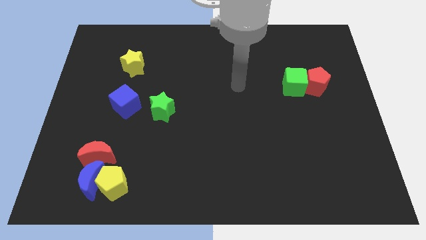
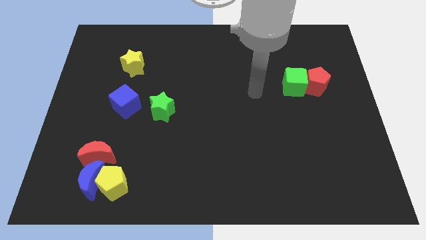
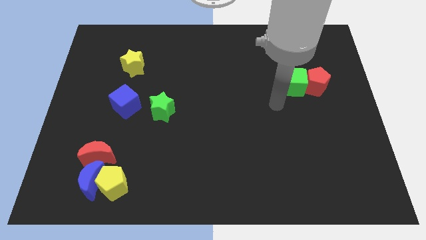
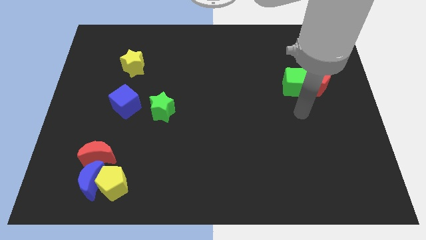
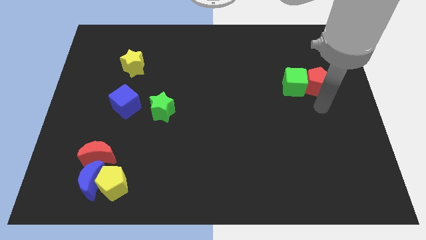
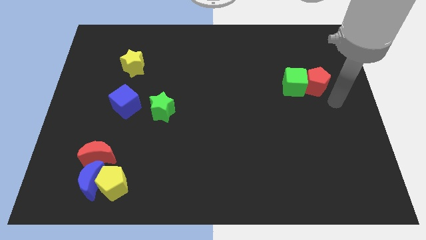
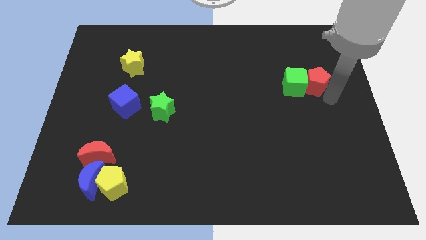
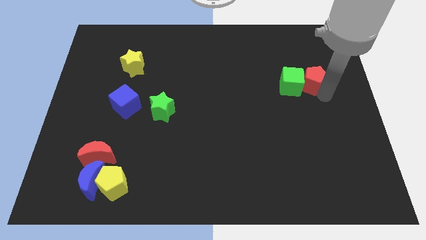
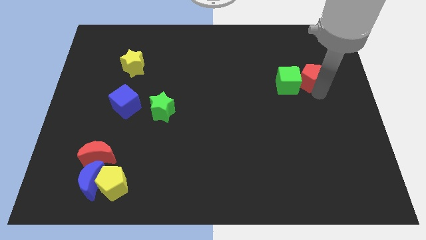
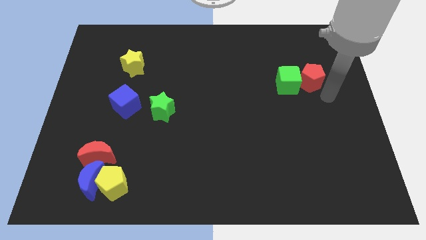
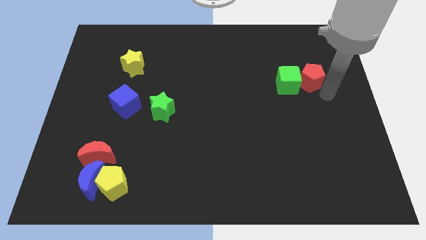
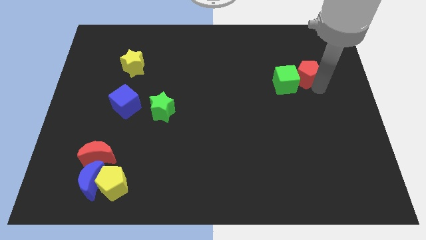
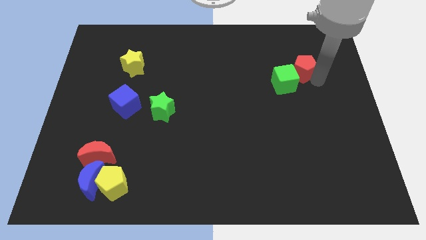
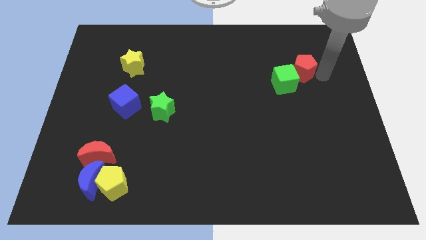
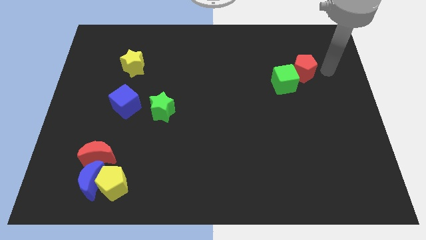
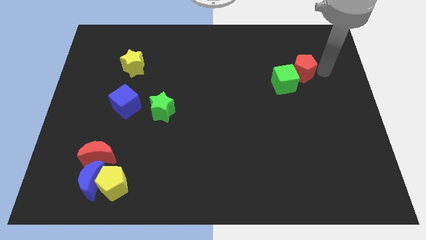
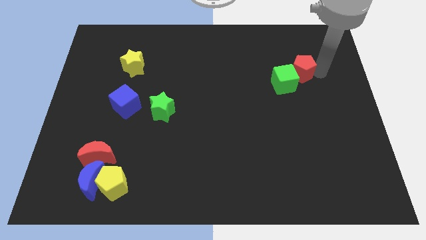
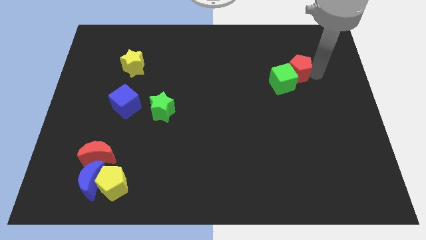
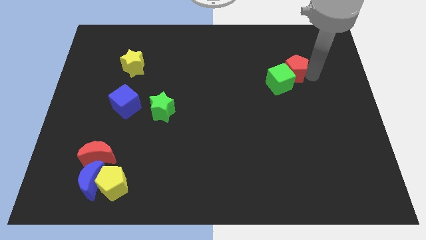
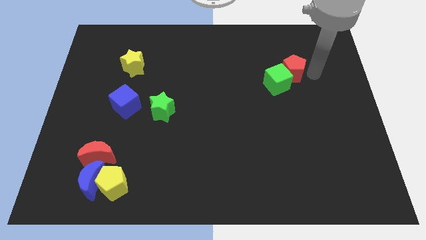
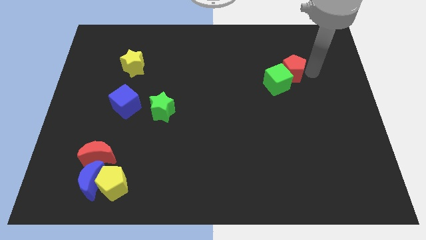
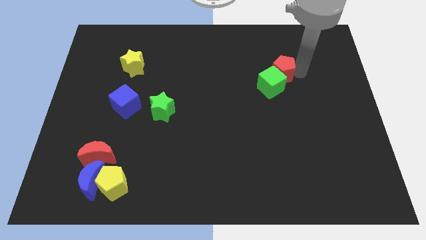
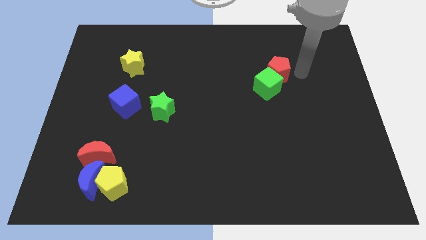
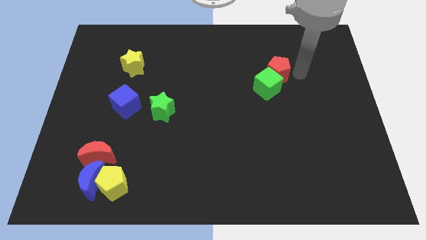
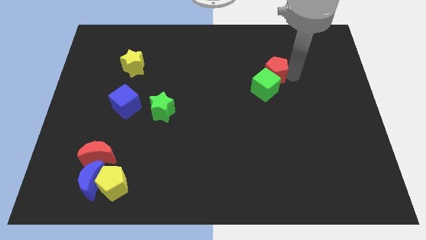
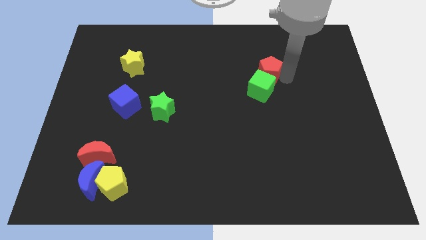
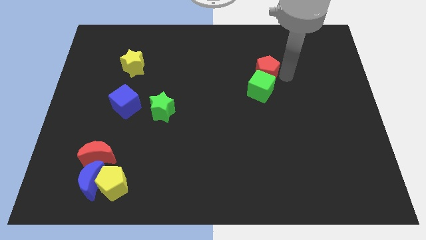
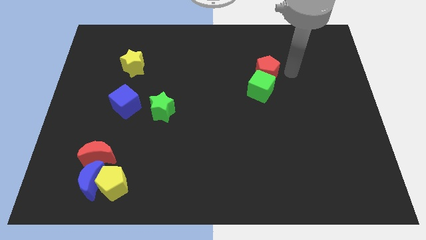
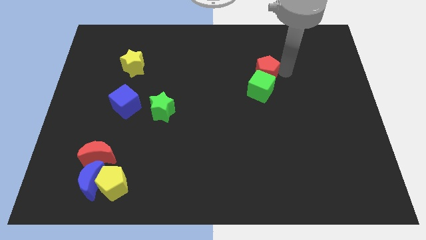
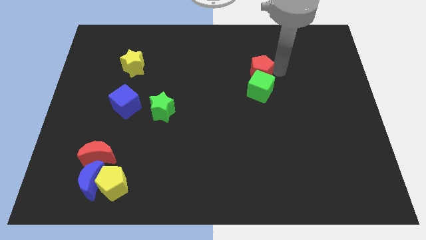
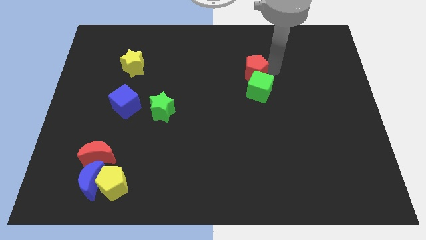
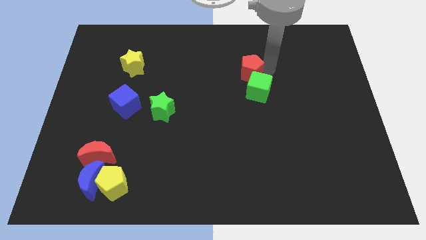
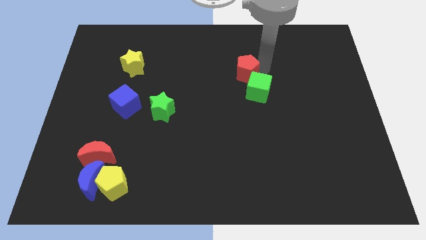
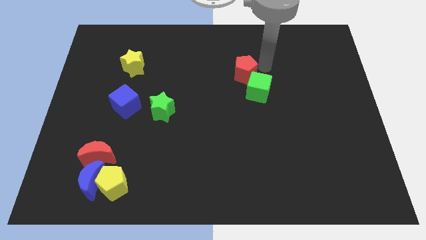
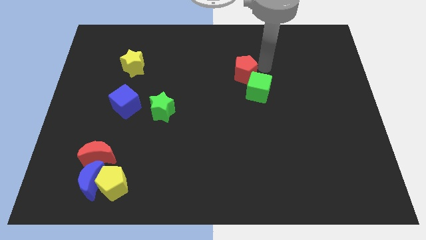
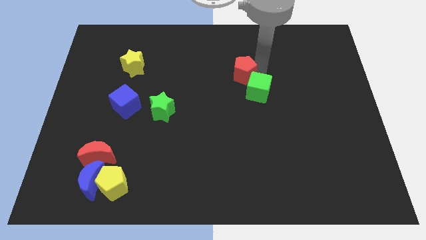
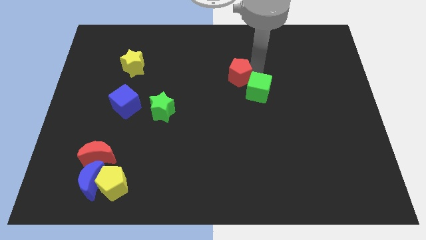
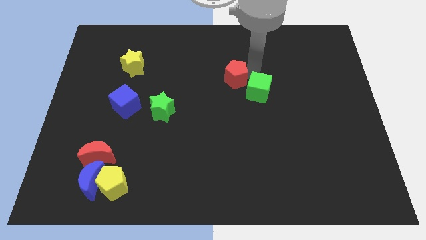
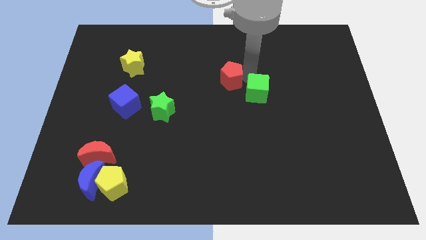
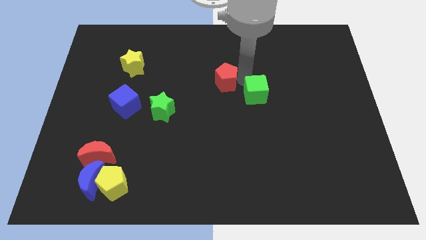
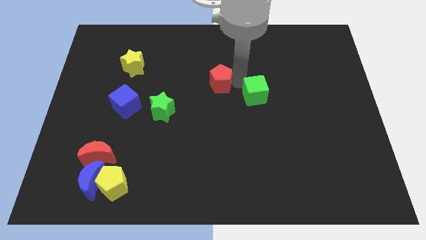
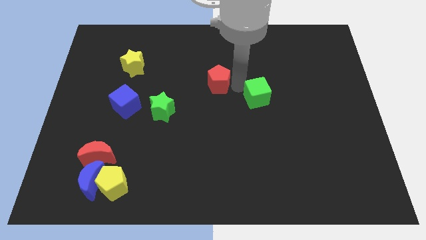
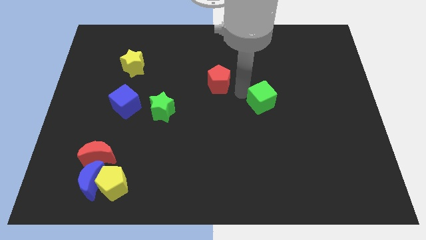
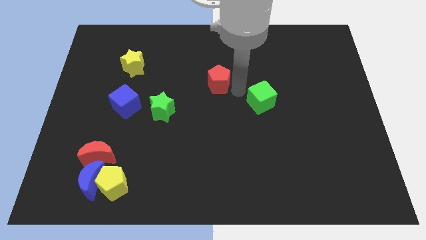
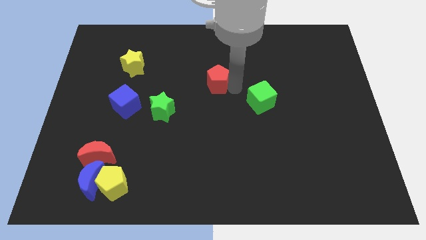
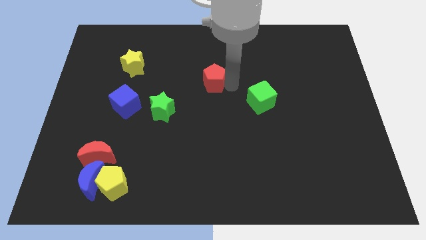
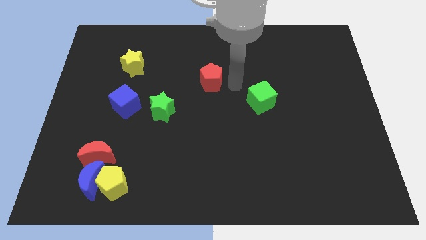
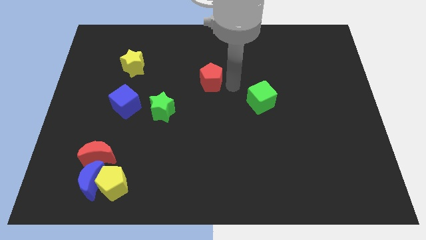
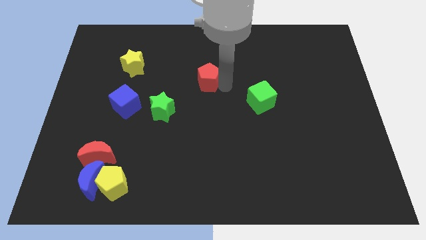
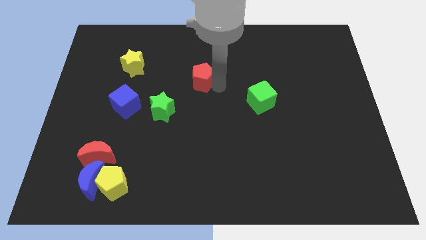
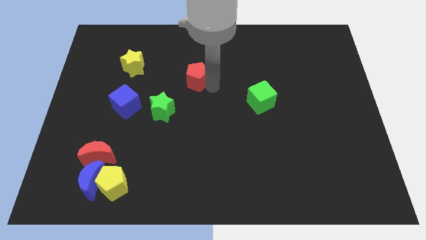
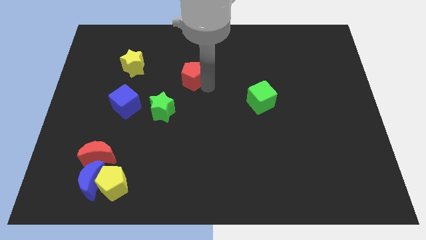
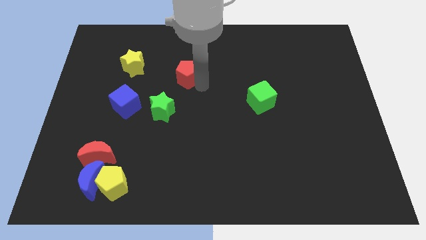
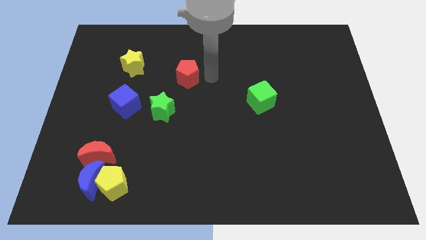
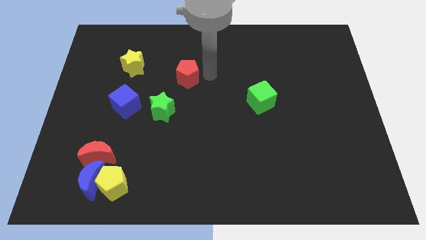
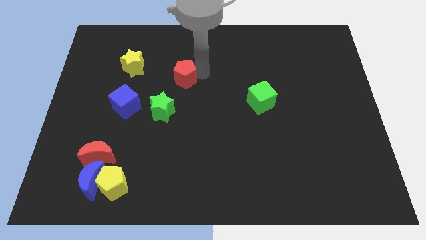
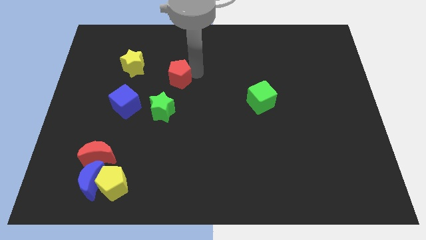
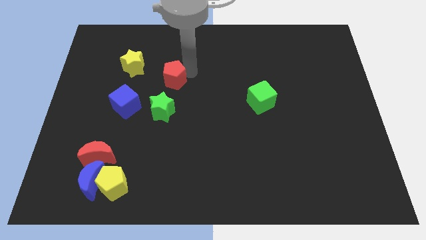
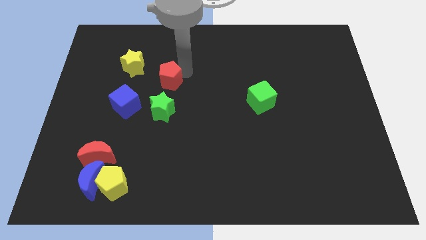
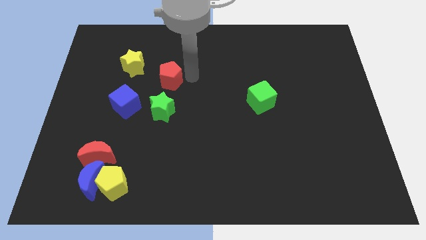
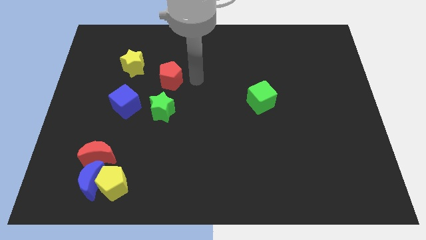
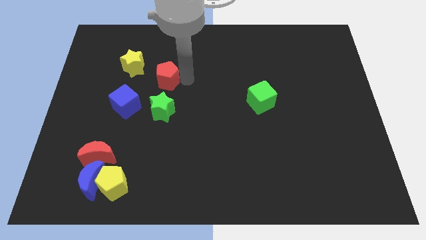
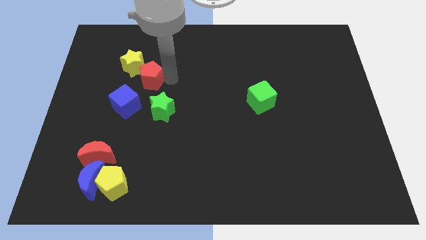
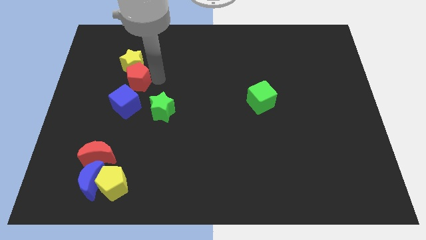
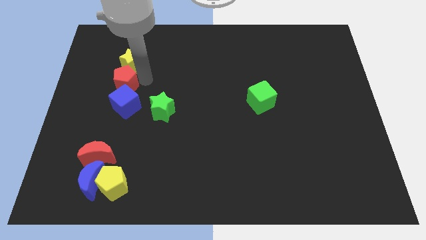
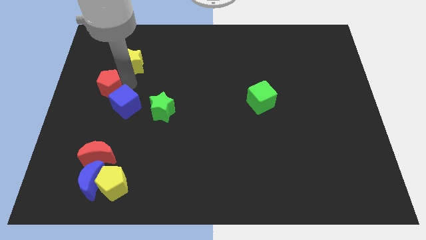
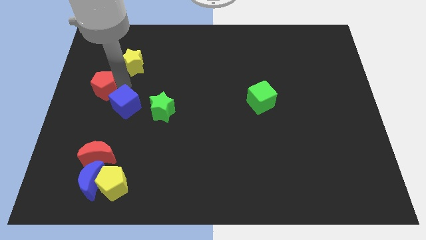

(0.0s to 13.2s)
move the red pentagon to the center left
